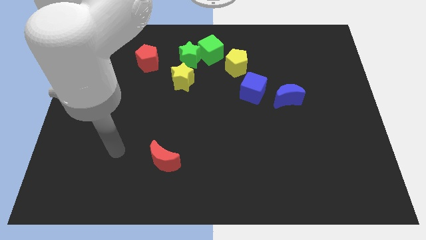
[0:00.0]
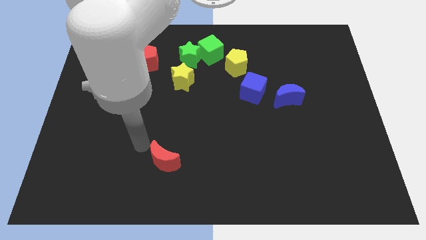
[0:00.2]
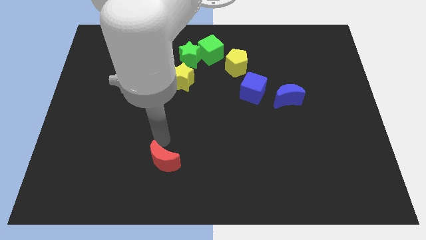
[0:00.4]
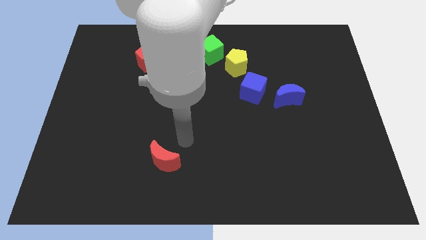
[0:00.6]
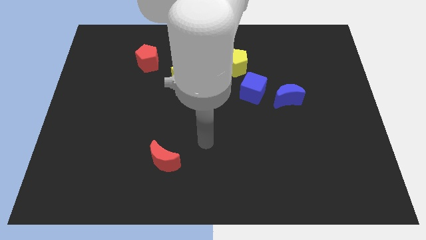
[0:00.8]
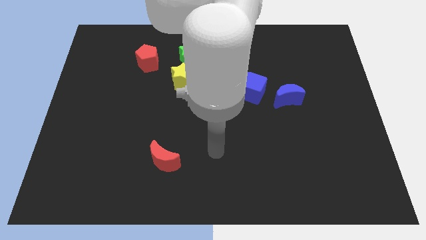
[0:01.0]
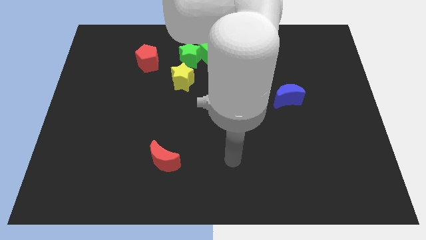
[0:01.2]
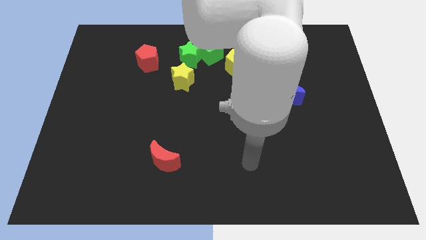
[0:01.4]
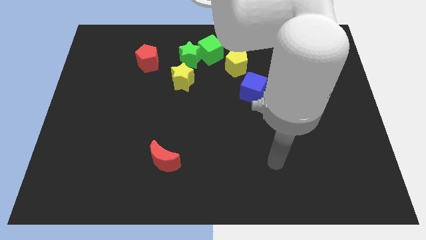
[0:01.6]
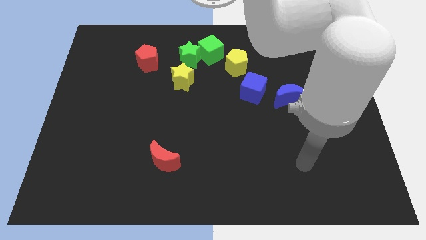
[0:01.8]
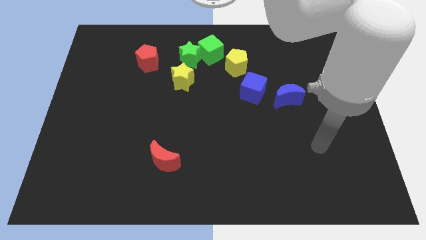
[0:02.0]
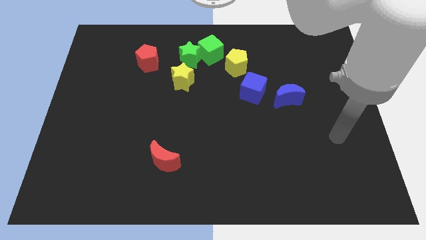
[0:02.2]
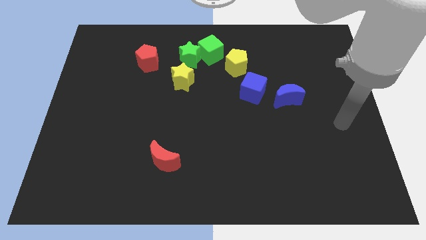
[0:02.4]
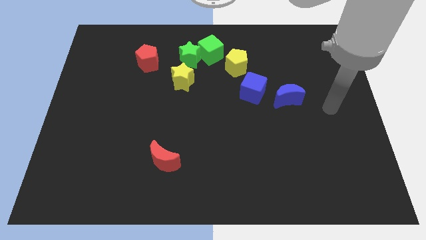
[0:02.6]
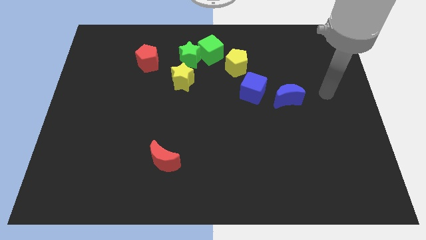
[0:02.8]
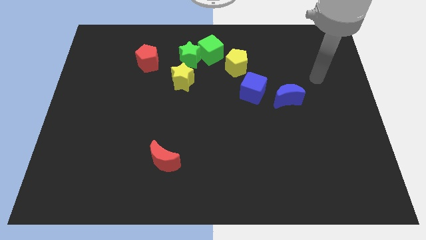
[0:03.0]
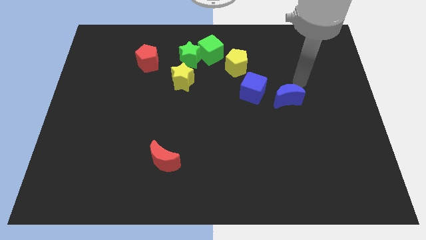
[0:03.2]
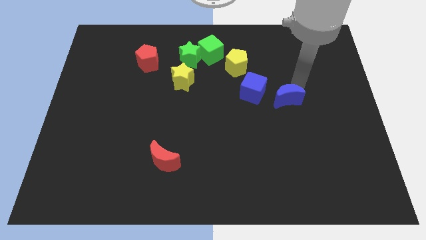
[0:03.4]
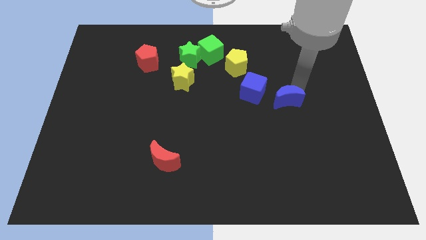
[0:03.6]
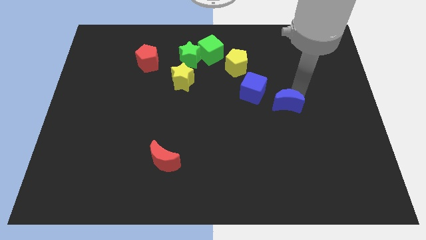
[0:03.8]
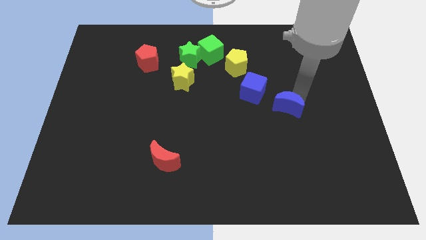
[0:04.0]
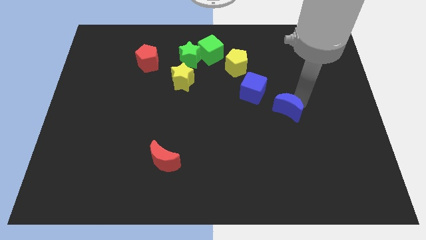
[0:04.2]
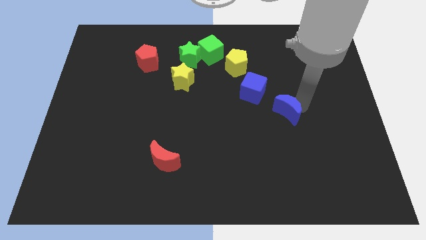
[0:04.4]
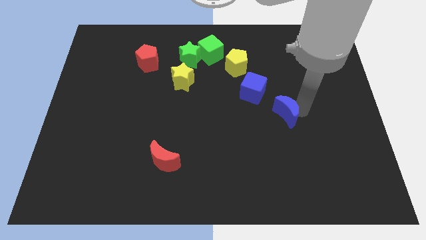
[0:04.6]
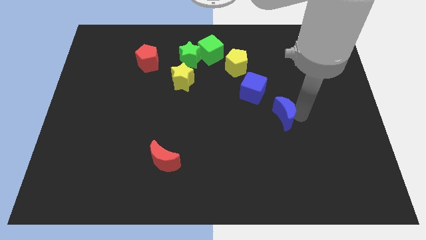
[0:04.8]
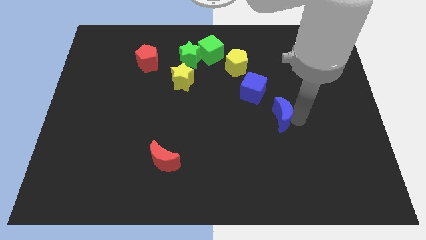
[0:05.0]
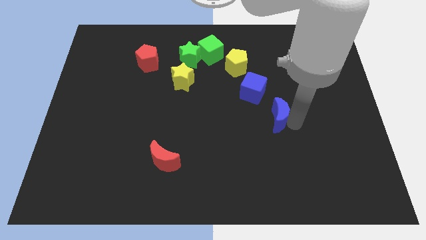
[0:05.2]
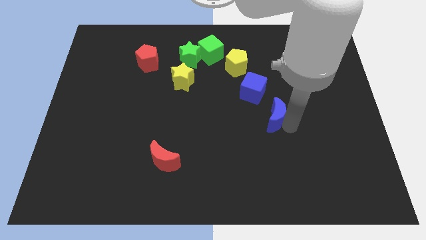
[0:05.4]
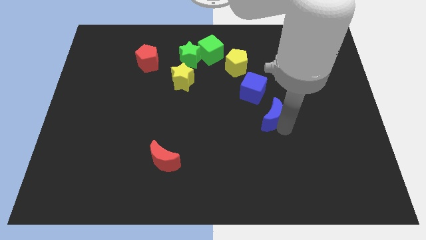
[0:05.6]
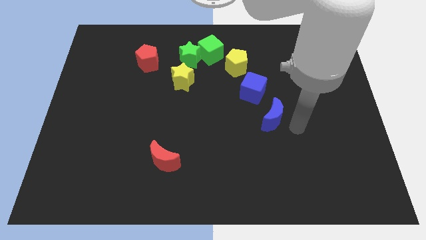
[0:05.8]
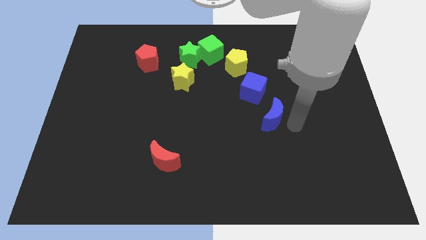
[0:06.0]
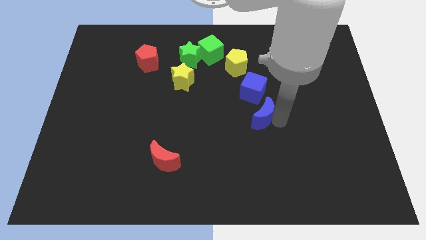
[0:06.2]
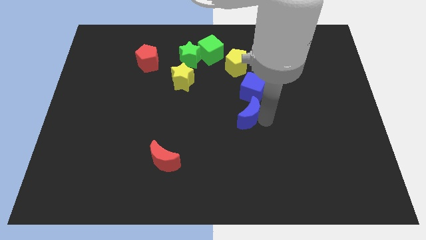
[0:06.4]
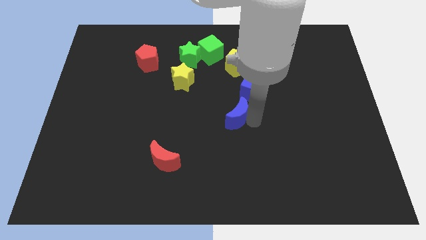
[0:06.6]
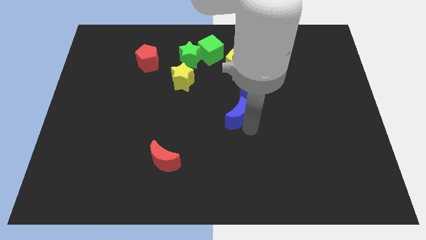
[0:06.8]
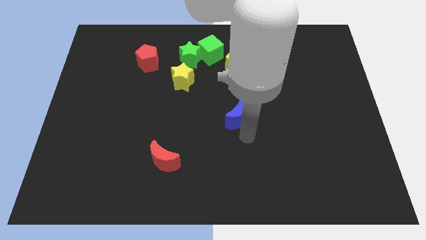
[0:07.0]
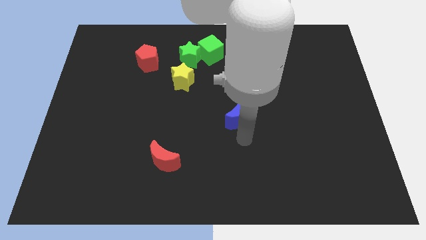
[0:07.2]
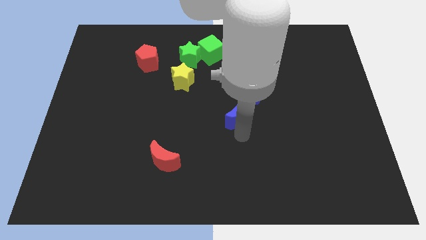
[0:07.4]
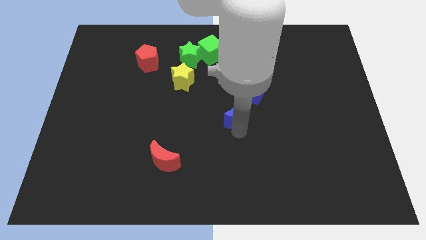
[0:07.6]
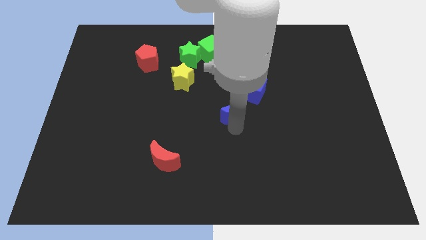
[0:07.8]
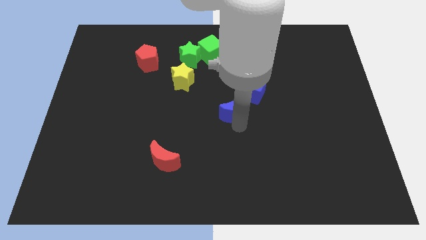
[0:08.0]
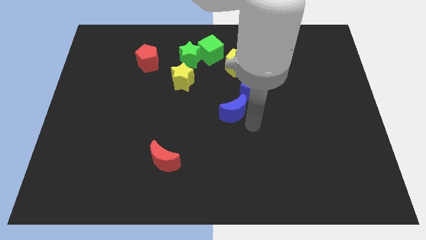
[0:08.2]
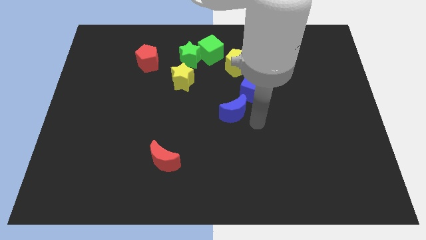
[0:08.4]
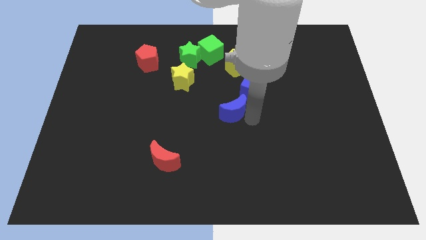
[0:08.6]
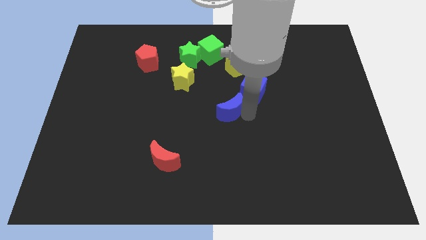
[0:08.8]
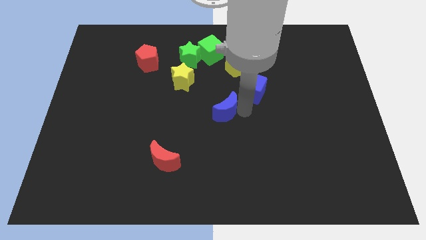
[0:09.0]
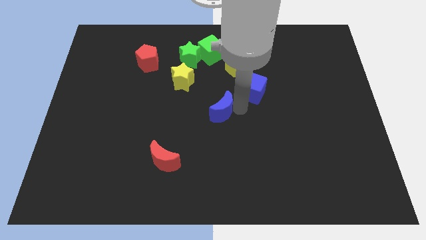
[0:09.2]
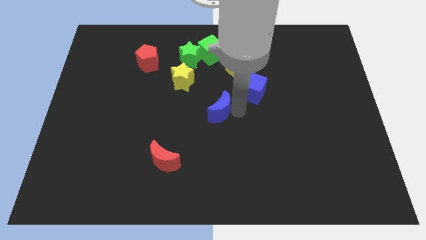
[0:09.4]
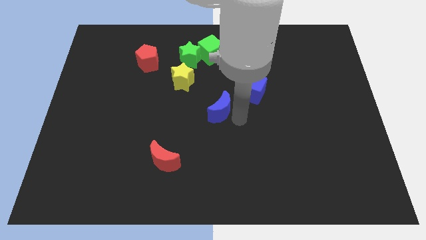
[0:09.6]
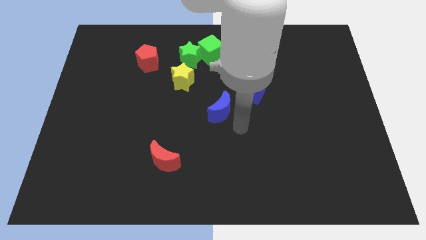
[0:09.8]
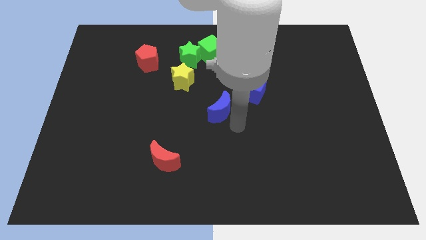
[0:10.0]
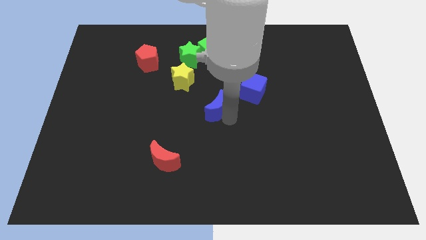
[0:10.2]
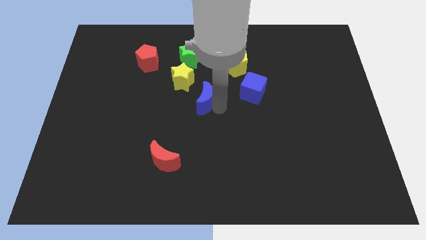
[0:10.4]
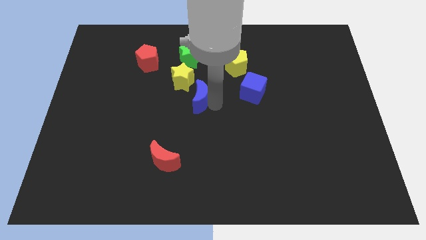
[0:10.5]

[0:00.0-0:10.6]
move the blue moon to the left

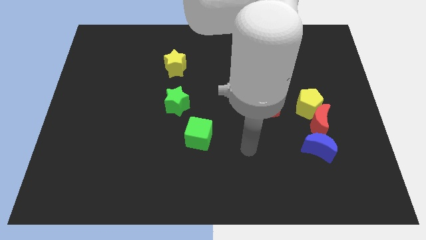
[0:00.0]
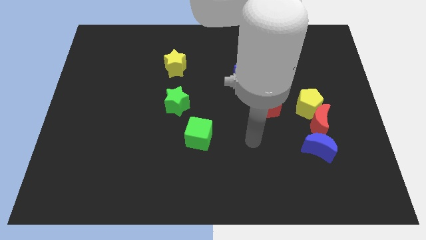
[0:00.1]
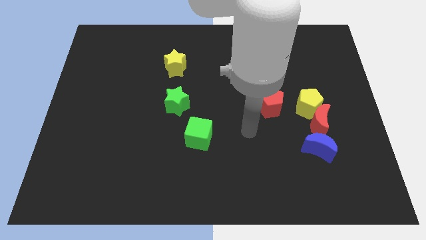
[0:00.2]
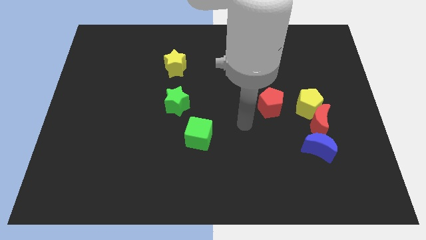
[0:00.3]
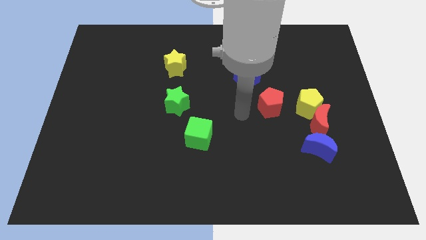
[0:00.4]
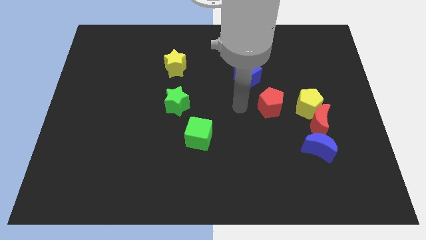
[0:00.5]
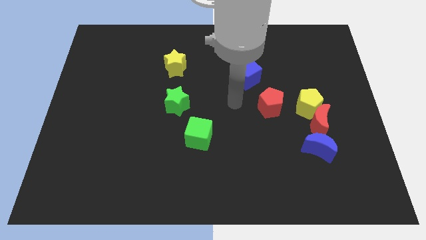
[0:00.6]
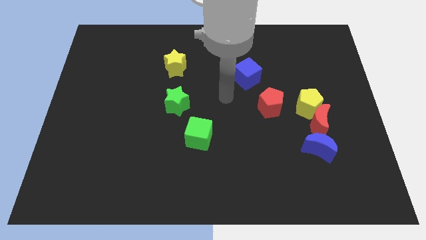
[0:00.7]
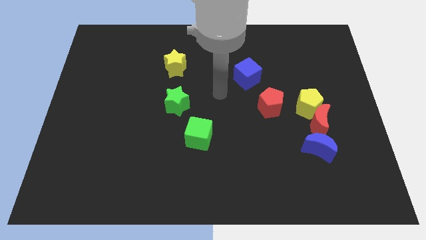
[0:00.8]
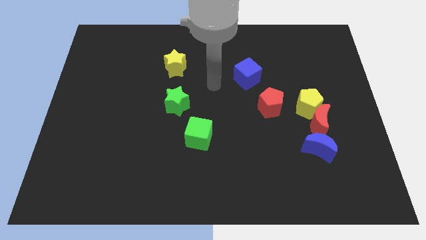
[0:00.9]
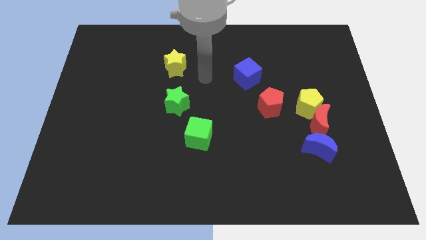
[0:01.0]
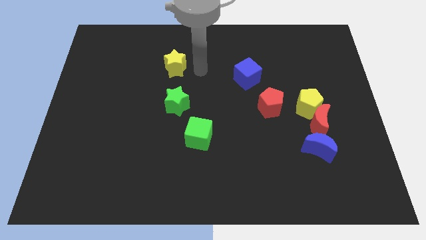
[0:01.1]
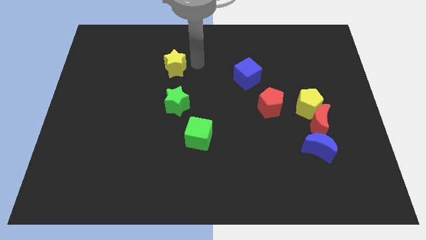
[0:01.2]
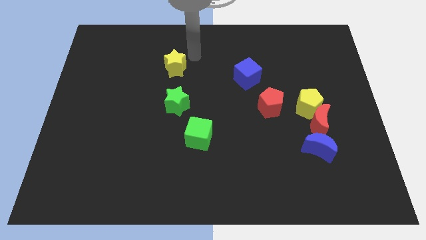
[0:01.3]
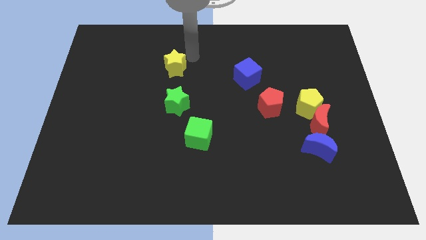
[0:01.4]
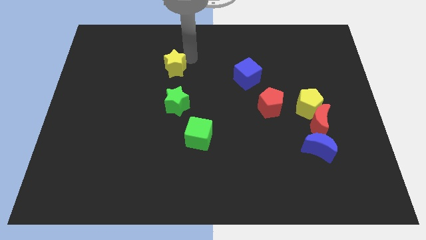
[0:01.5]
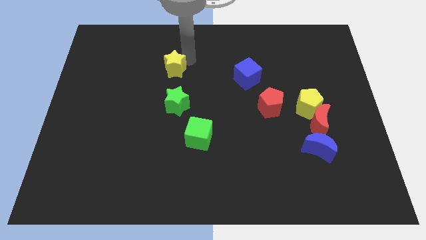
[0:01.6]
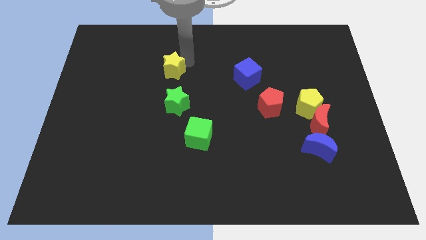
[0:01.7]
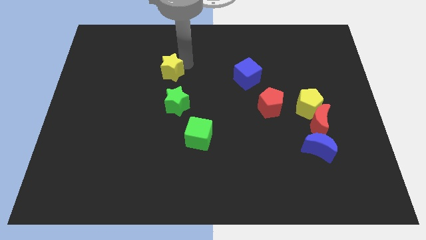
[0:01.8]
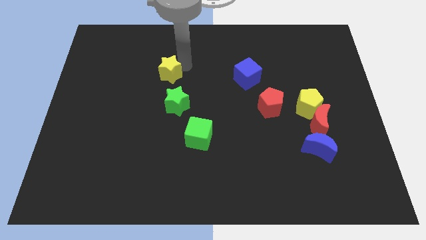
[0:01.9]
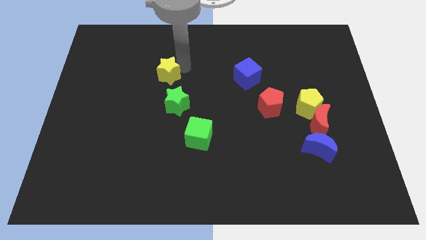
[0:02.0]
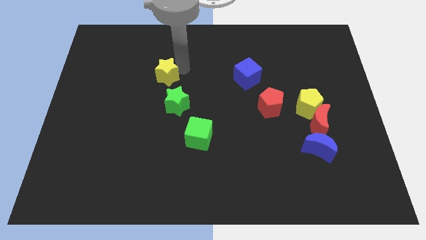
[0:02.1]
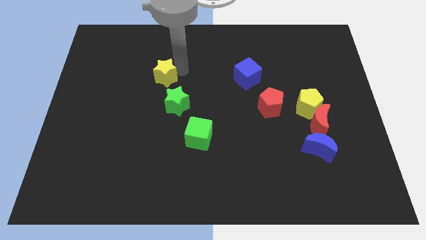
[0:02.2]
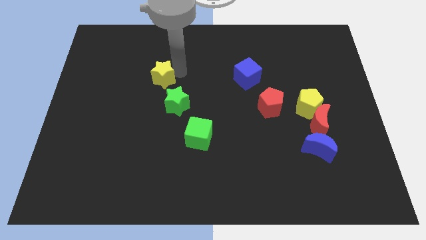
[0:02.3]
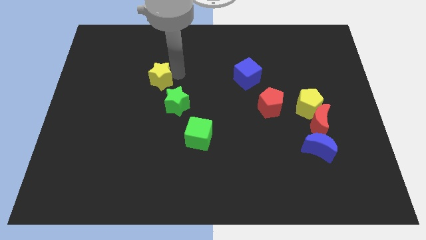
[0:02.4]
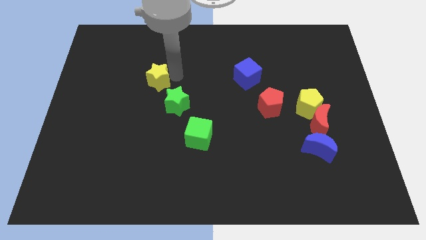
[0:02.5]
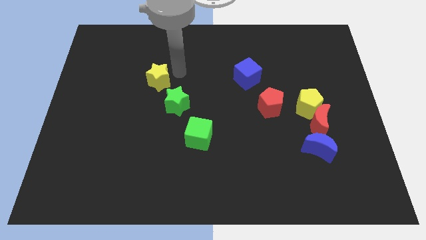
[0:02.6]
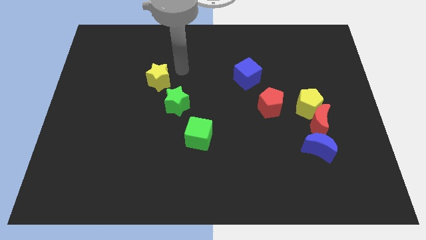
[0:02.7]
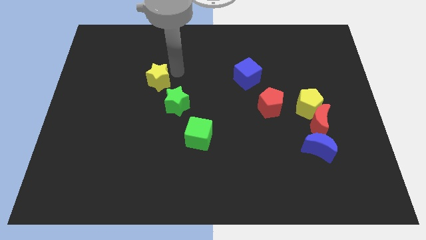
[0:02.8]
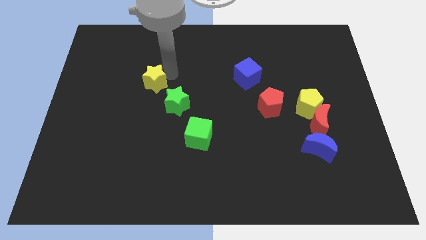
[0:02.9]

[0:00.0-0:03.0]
move the yellow star downwards and then to the left a little
